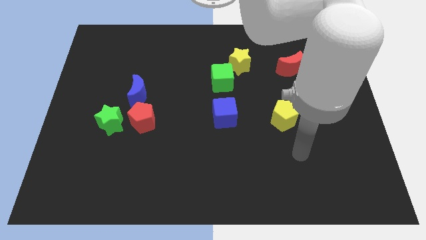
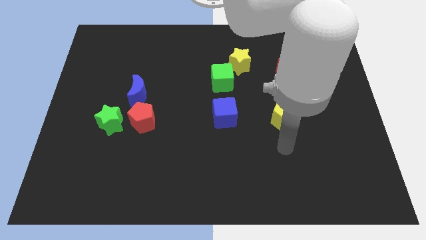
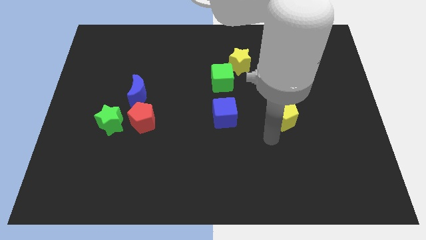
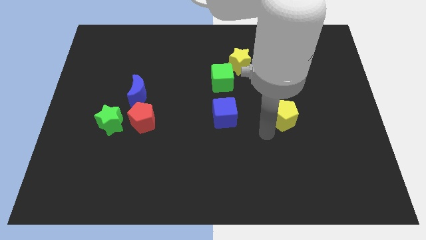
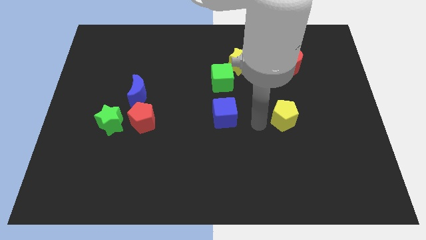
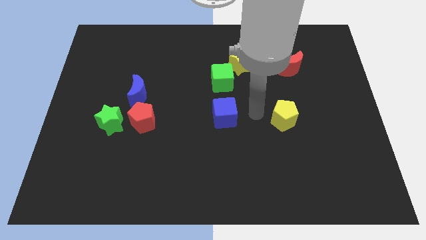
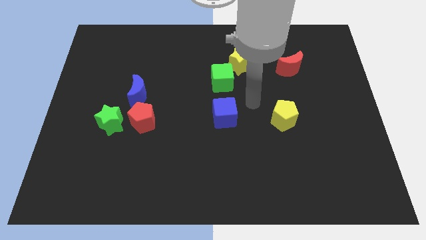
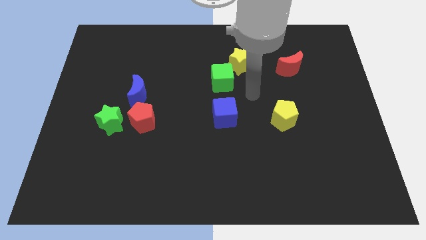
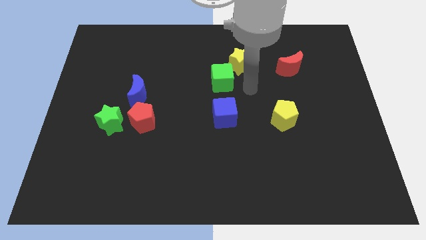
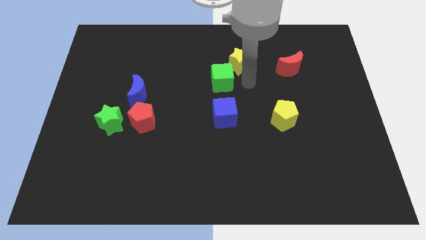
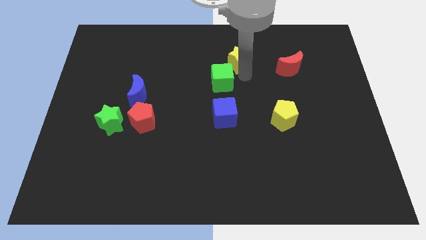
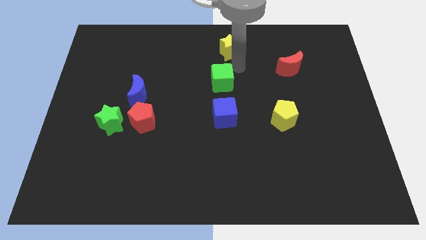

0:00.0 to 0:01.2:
move the green cube away from the yellow star

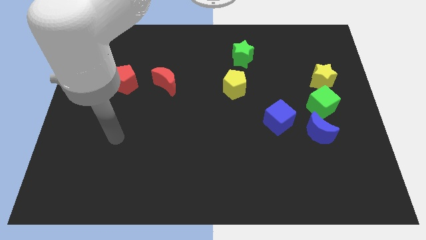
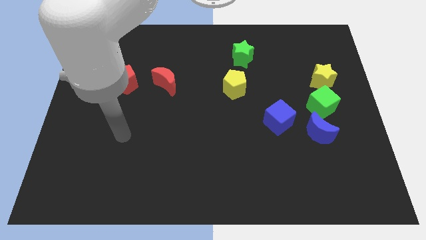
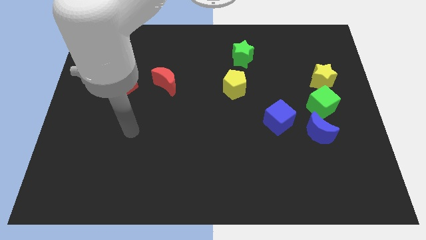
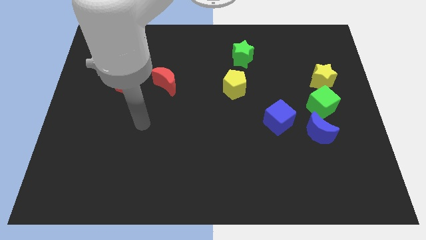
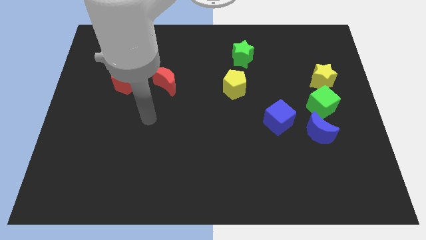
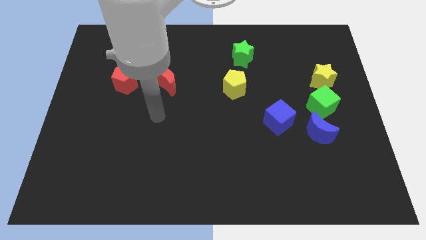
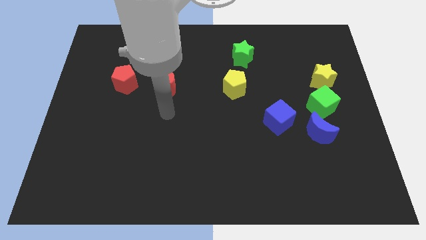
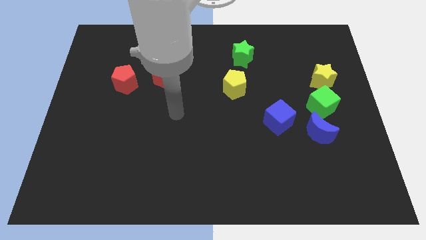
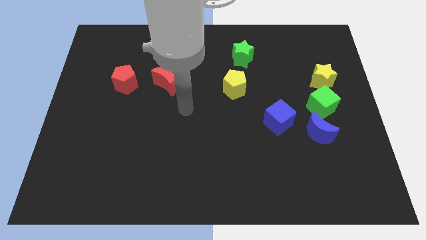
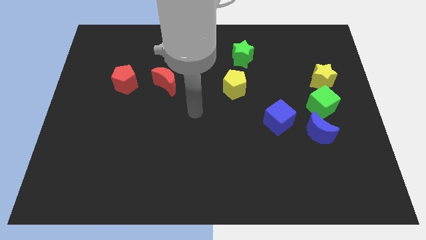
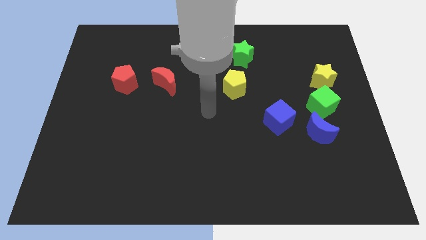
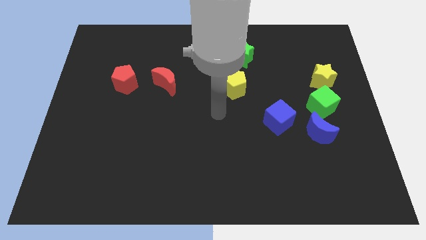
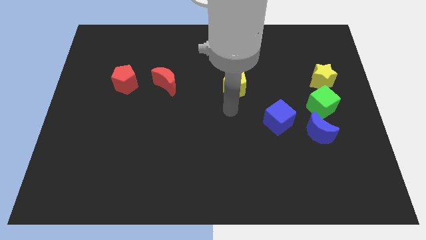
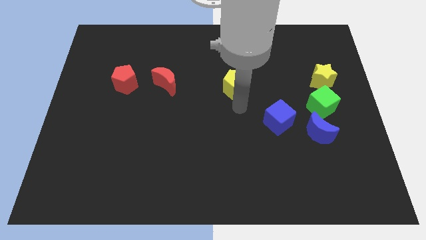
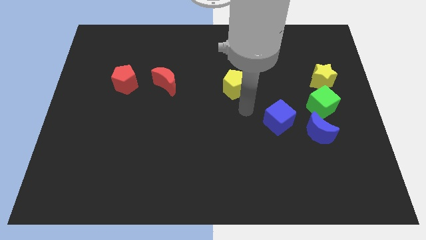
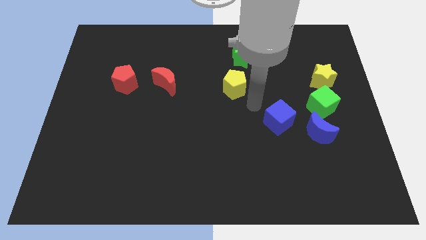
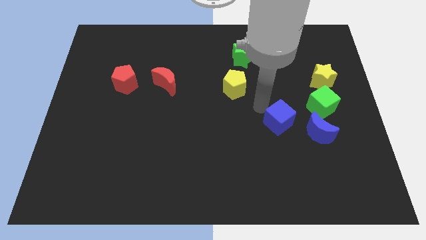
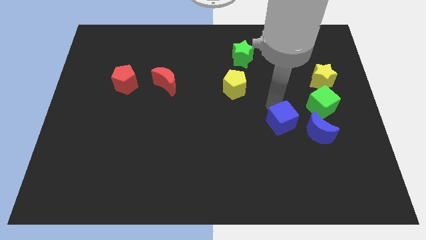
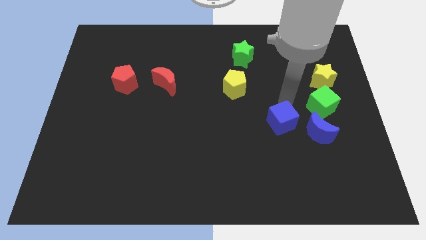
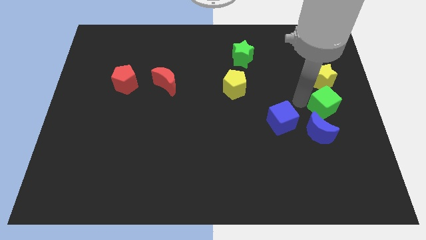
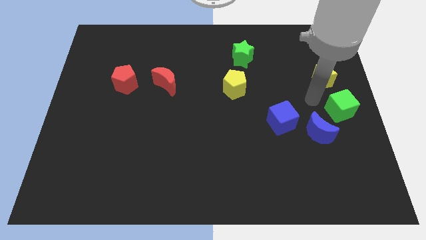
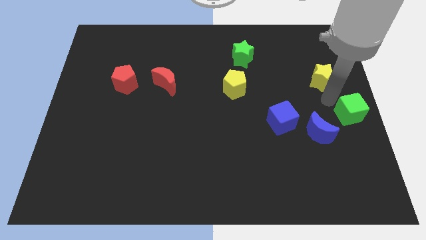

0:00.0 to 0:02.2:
separate the yellow star from the green cube

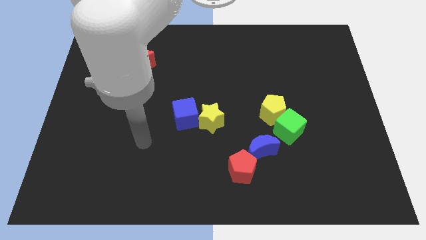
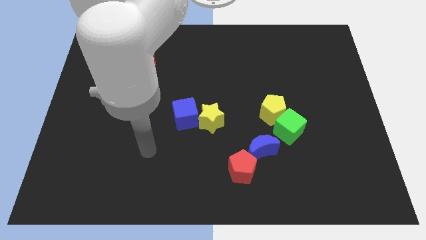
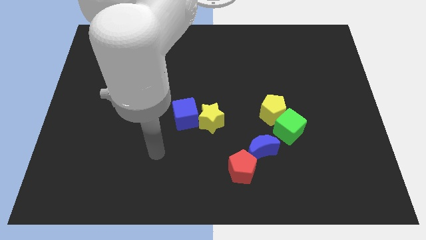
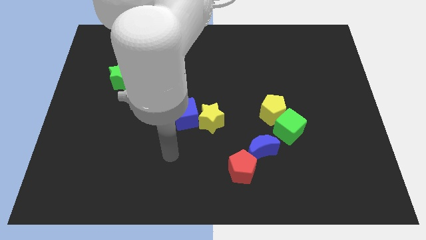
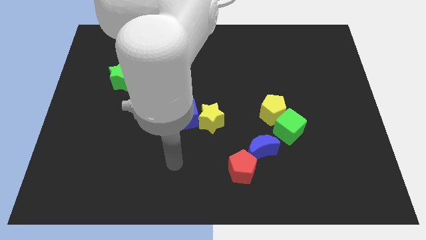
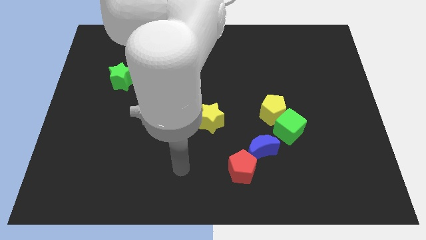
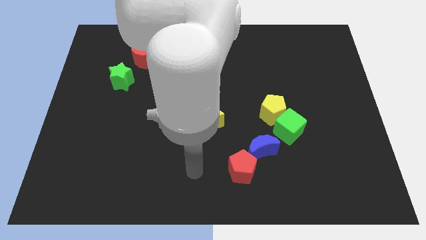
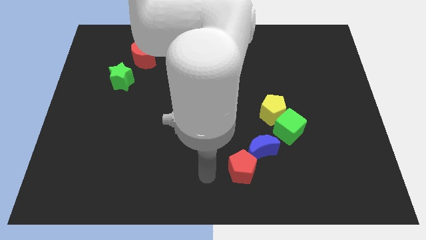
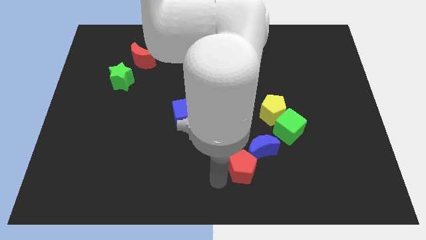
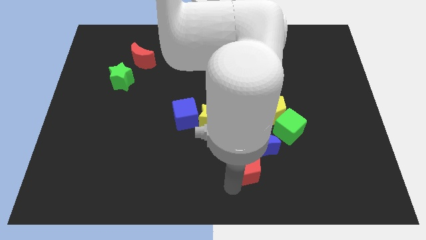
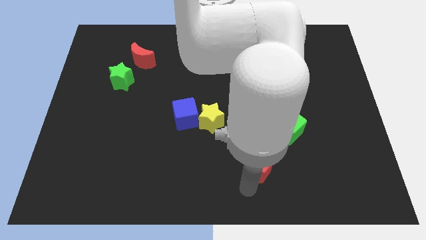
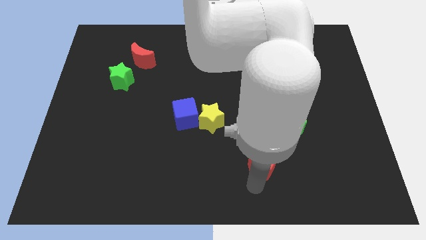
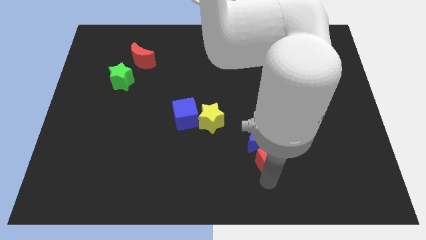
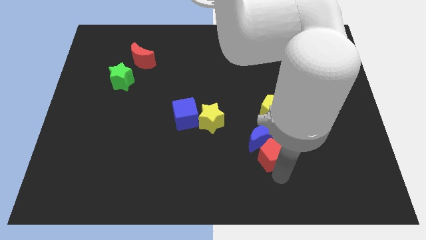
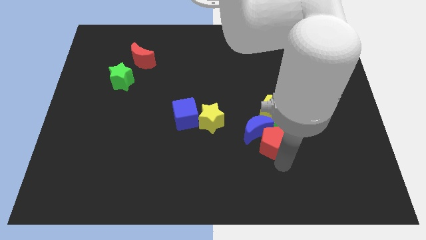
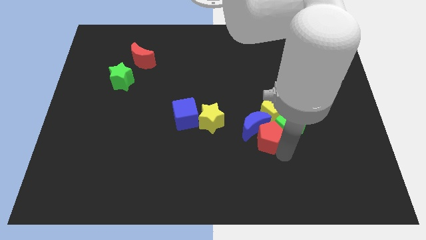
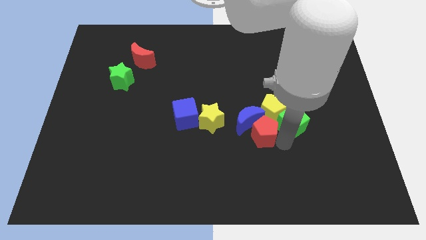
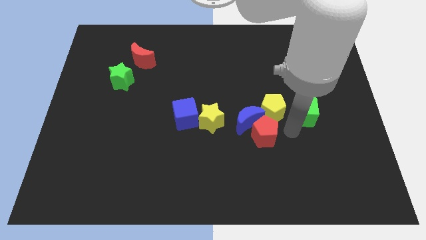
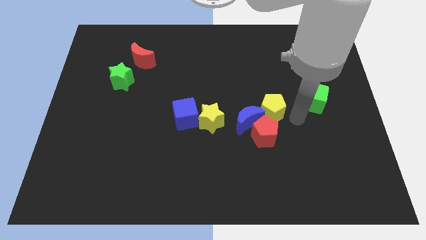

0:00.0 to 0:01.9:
separate the yellow pentagon from the green cube

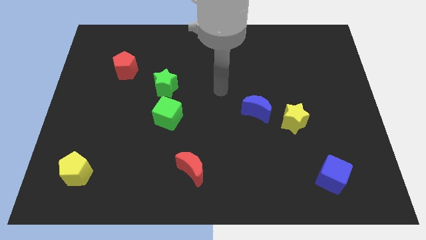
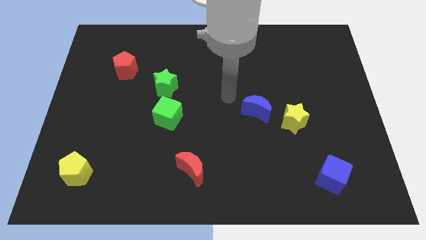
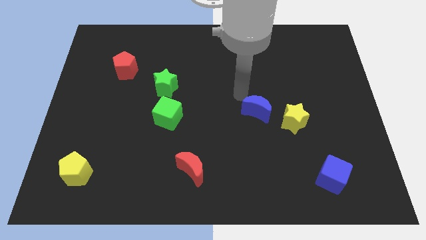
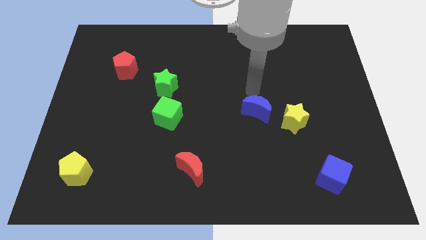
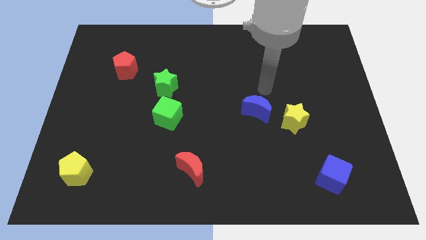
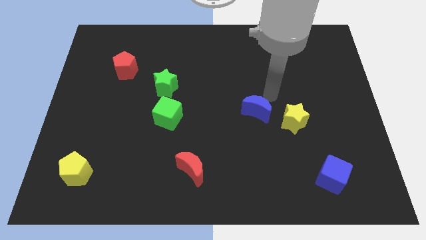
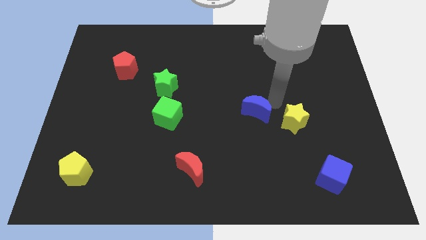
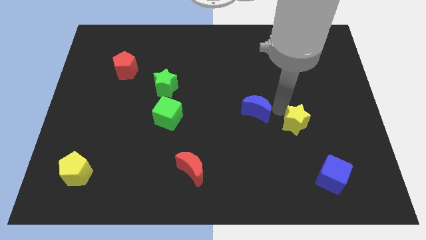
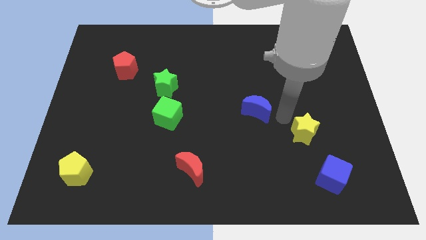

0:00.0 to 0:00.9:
pull the blue moon apart from the yellow star

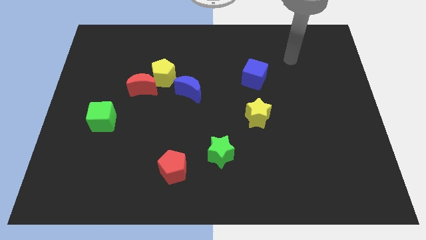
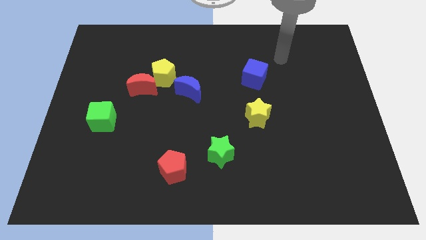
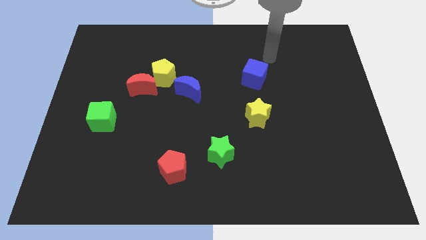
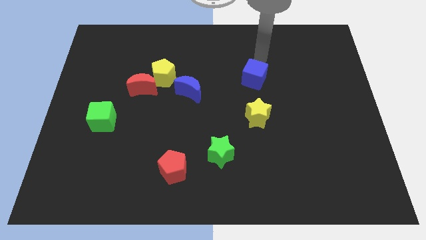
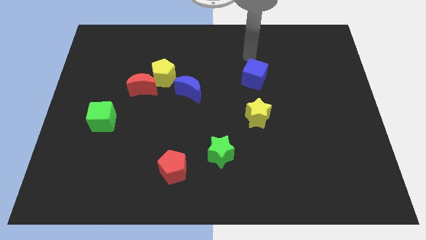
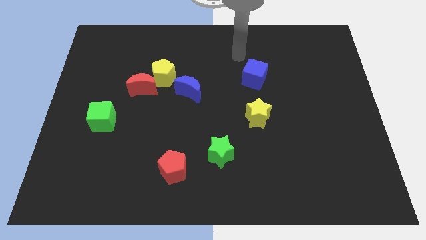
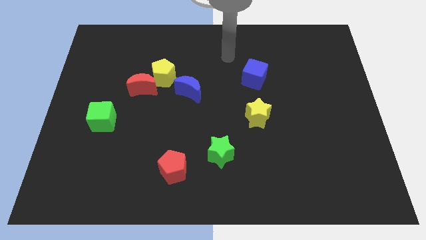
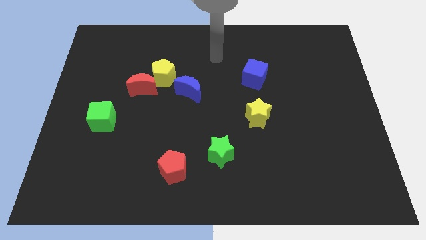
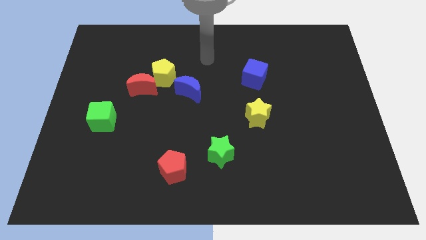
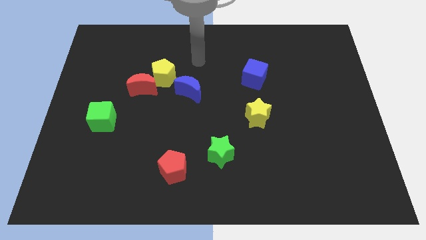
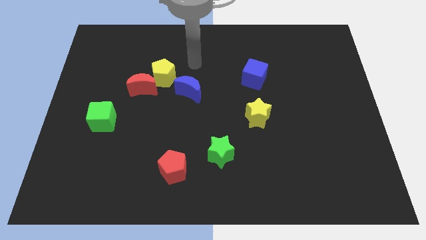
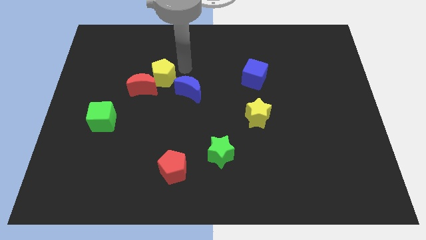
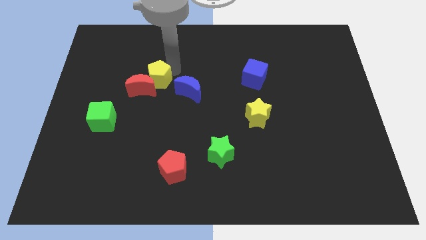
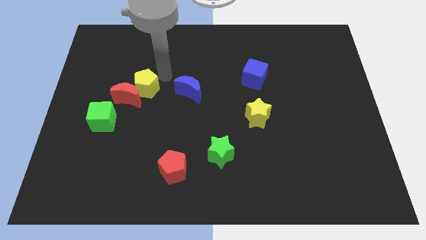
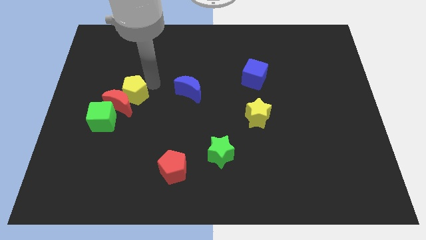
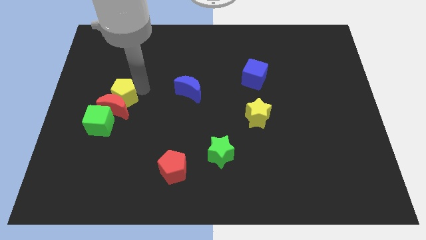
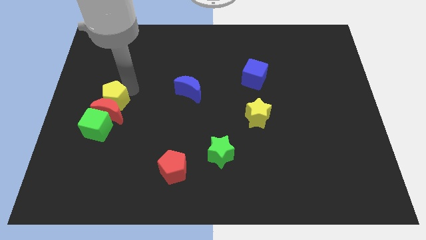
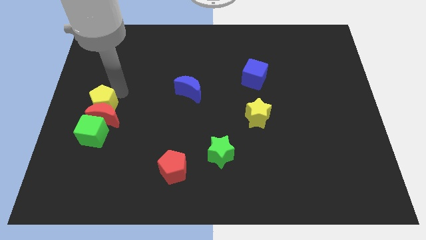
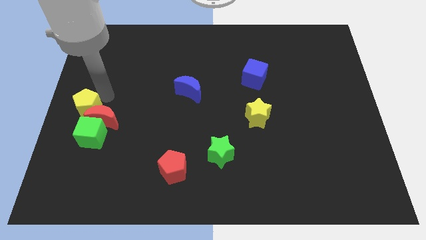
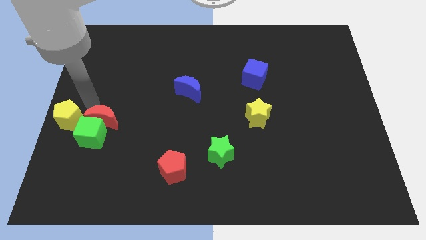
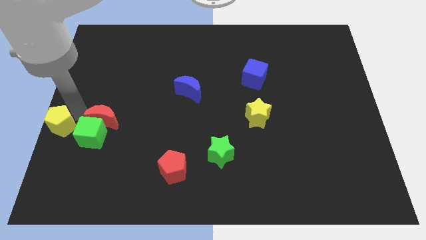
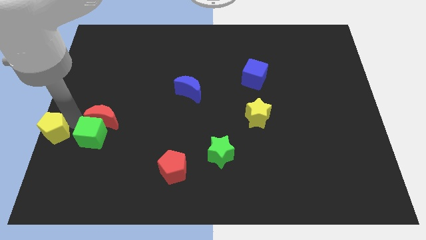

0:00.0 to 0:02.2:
move the red moon away from the yellow pentagon

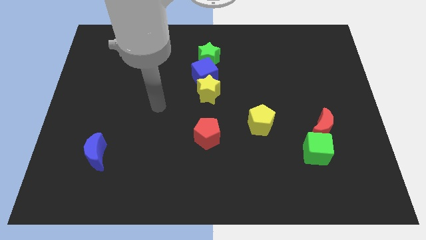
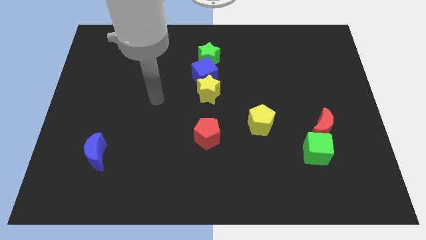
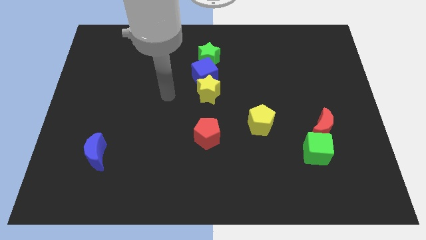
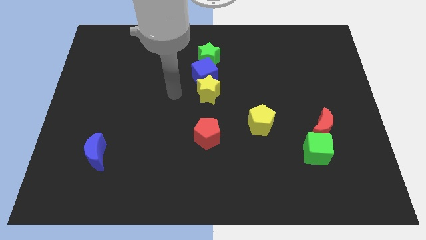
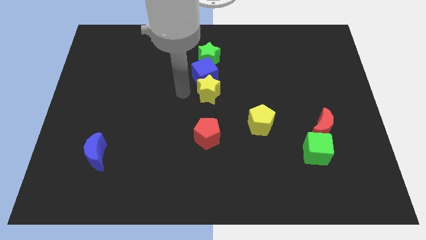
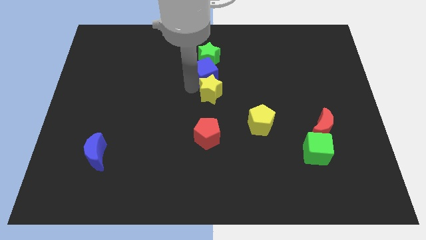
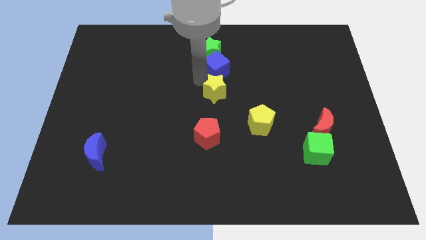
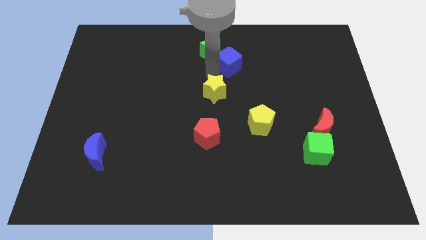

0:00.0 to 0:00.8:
separate the yellow star from the blue cube
